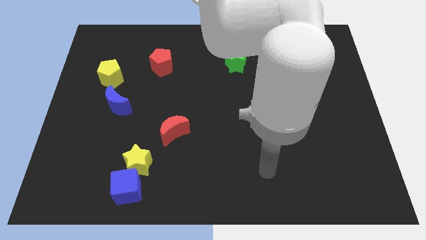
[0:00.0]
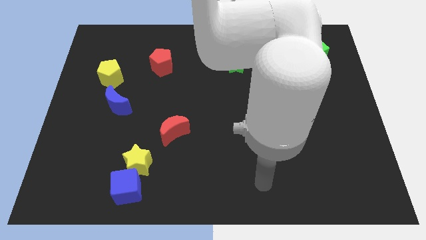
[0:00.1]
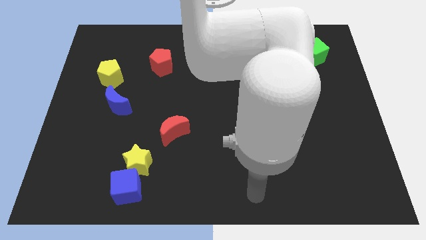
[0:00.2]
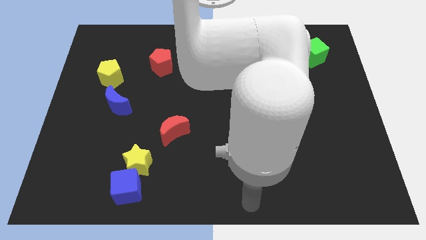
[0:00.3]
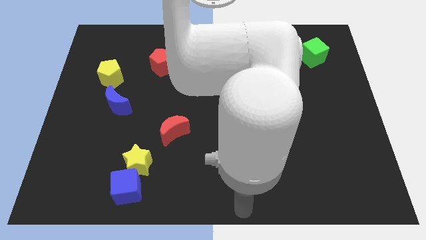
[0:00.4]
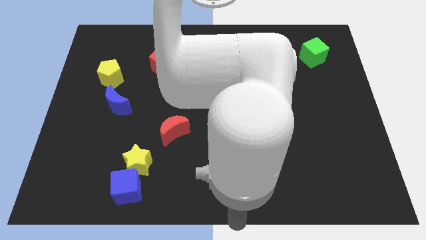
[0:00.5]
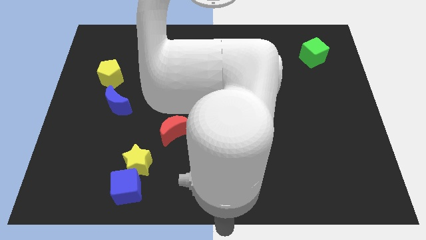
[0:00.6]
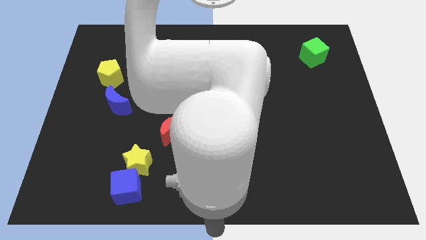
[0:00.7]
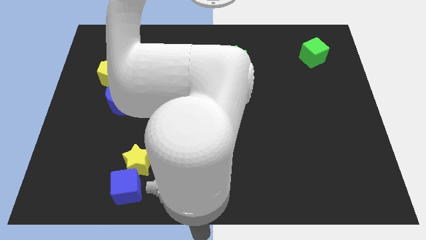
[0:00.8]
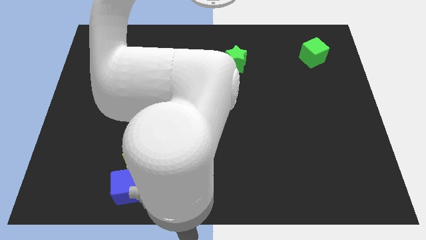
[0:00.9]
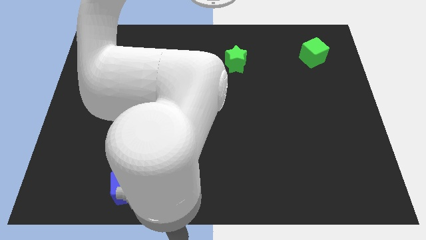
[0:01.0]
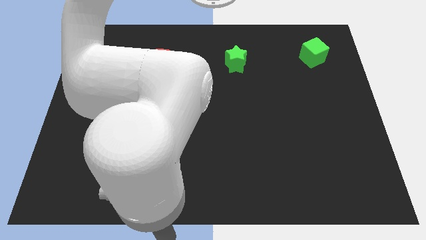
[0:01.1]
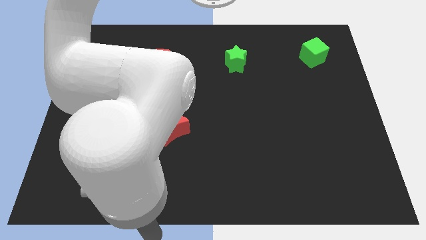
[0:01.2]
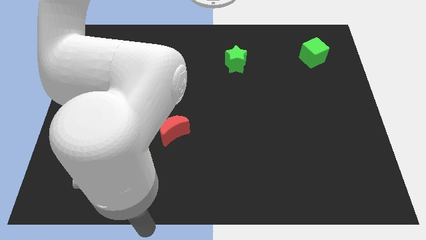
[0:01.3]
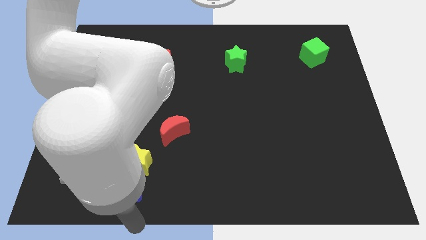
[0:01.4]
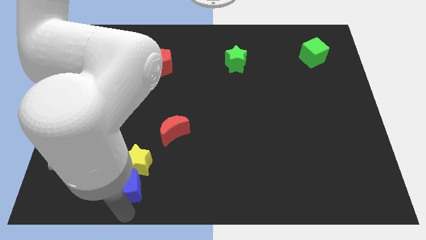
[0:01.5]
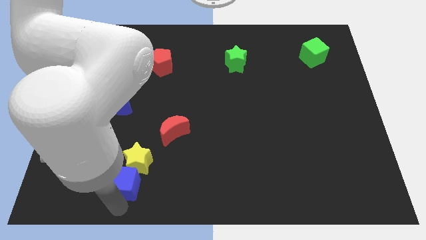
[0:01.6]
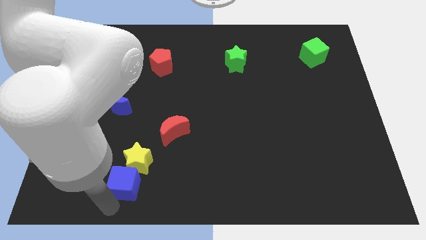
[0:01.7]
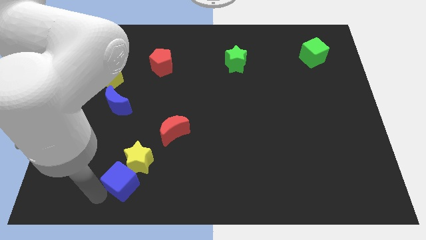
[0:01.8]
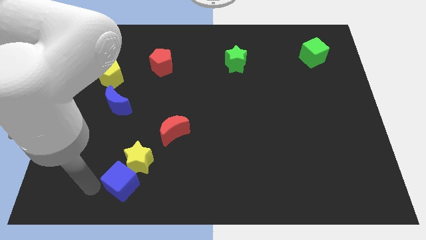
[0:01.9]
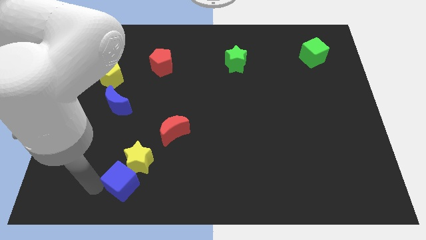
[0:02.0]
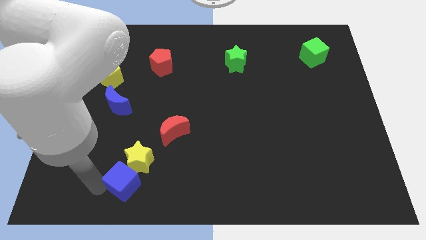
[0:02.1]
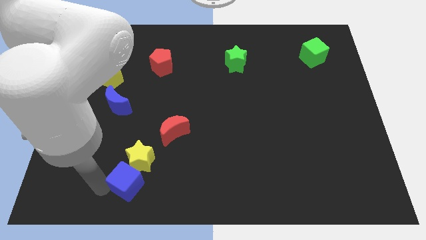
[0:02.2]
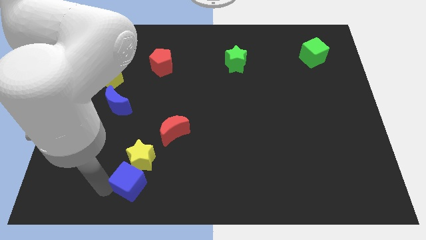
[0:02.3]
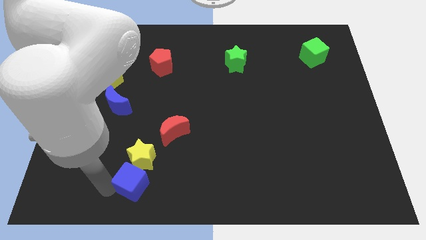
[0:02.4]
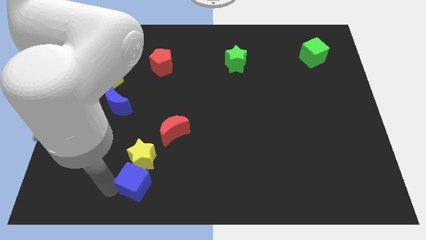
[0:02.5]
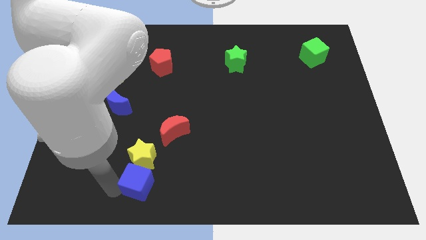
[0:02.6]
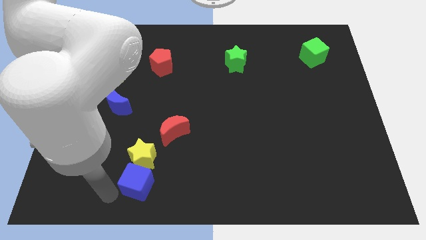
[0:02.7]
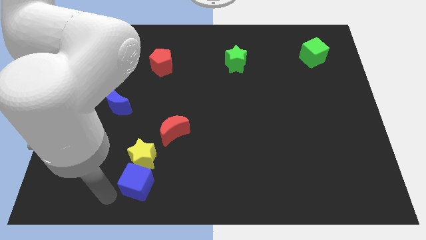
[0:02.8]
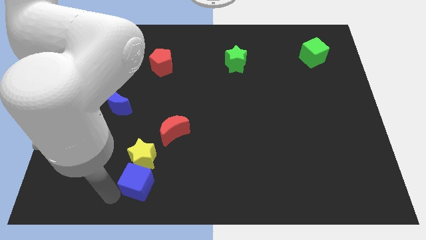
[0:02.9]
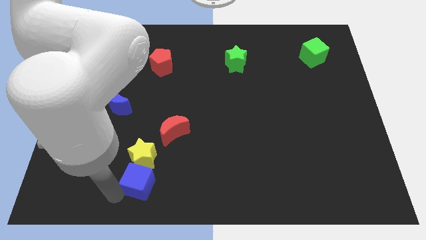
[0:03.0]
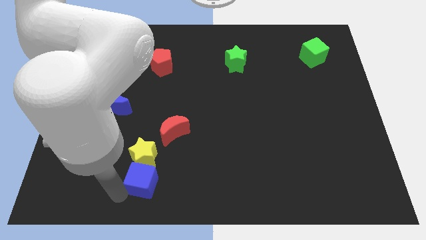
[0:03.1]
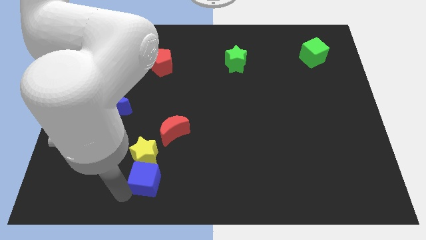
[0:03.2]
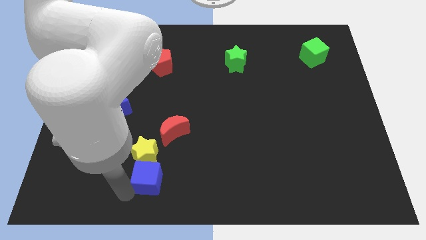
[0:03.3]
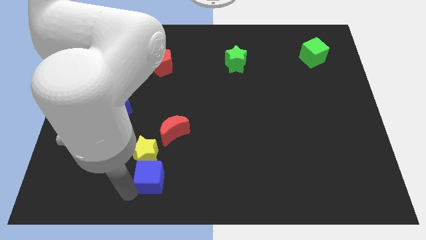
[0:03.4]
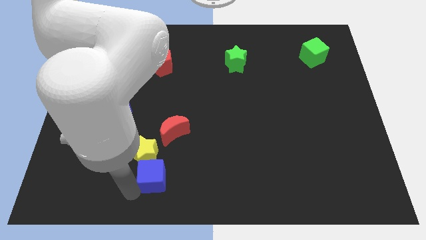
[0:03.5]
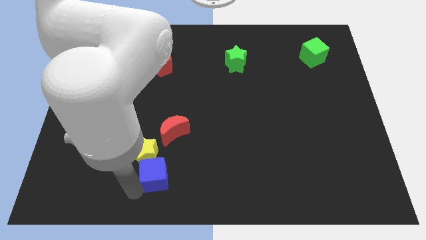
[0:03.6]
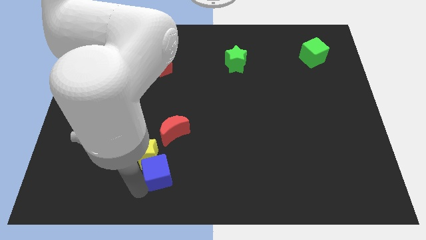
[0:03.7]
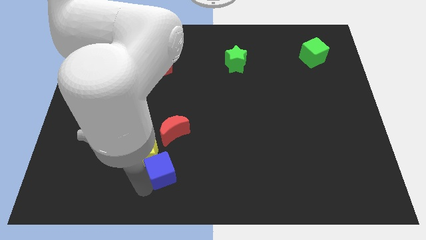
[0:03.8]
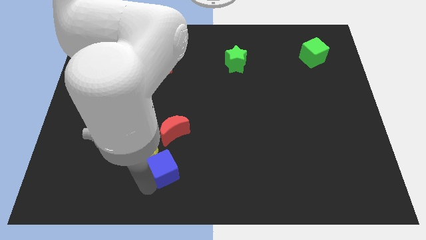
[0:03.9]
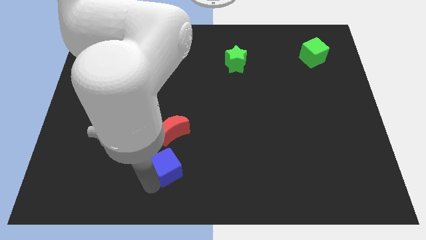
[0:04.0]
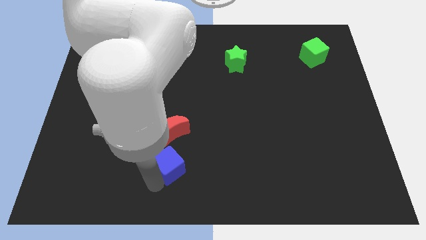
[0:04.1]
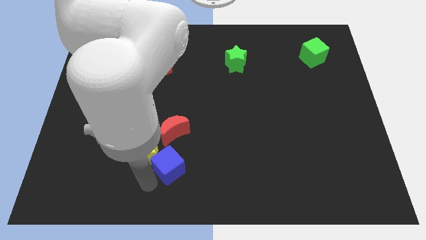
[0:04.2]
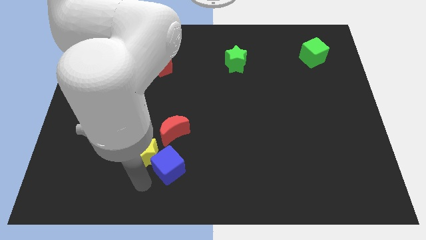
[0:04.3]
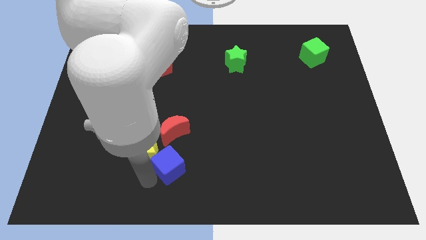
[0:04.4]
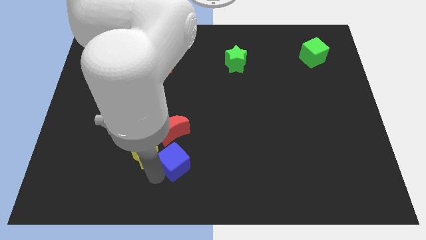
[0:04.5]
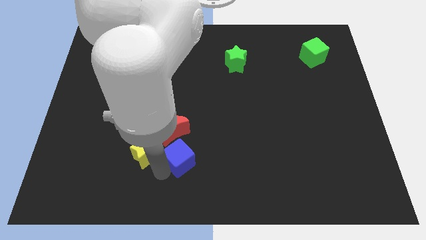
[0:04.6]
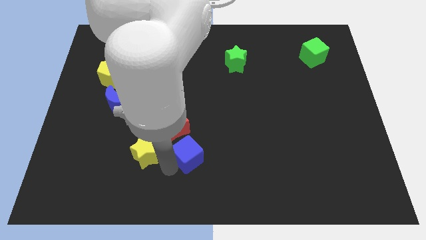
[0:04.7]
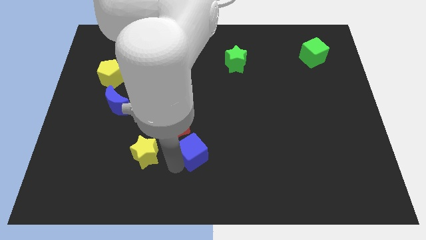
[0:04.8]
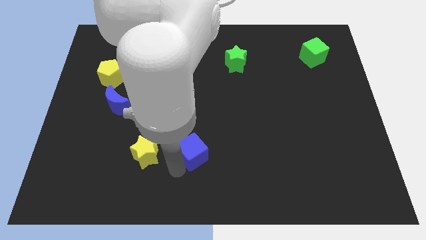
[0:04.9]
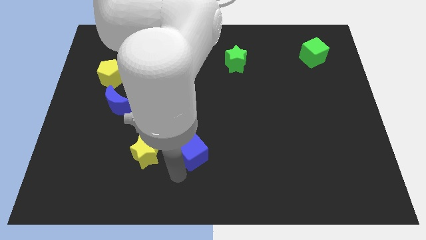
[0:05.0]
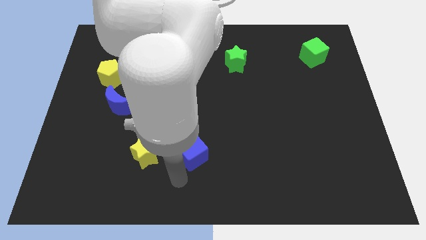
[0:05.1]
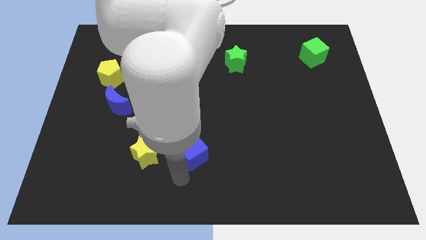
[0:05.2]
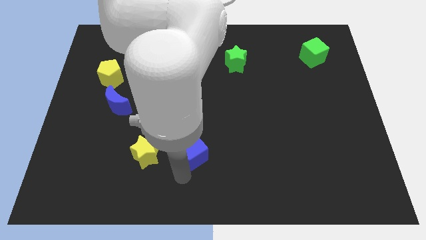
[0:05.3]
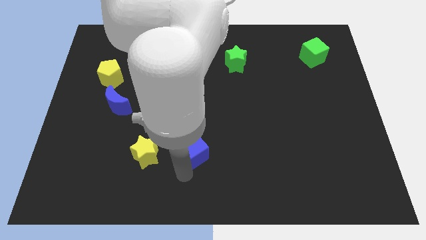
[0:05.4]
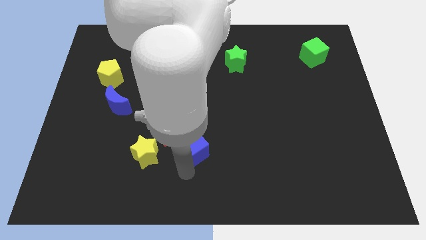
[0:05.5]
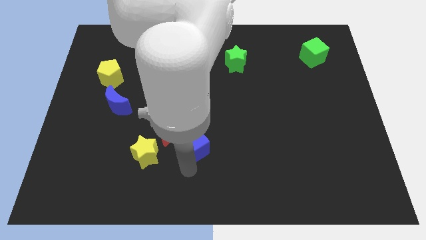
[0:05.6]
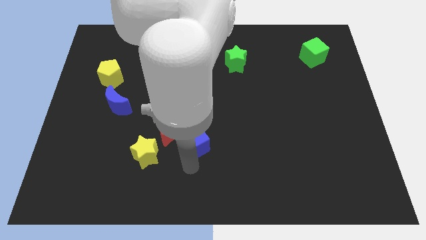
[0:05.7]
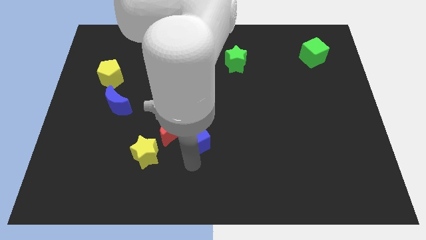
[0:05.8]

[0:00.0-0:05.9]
put the blue cube to the center of the board

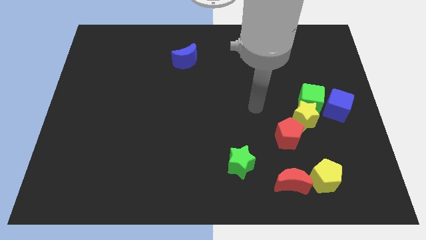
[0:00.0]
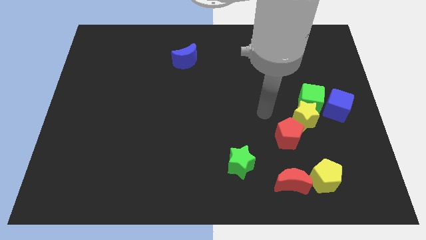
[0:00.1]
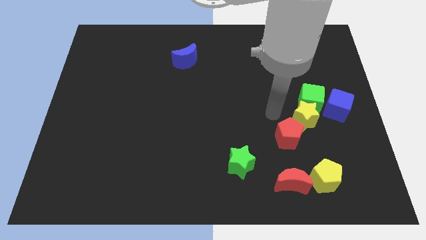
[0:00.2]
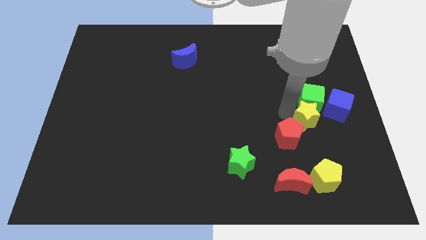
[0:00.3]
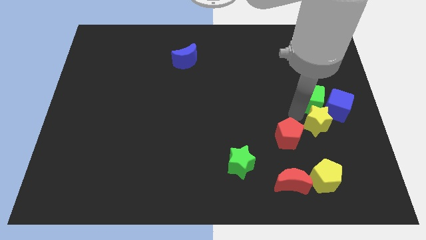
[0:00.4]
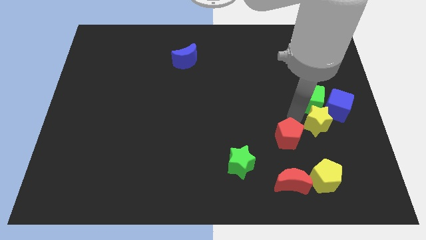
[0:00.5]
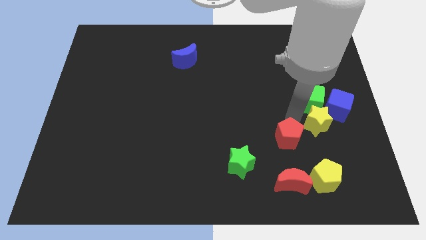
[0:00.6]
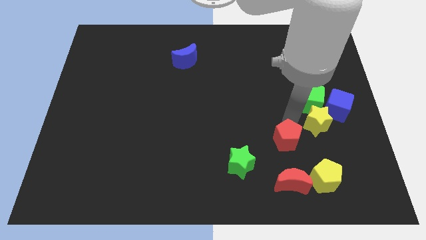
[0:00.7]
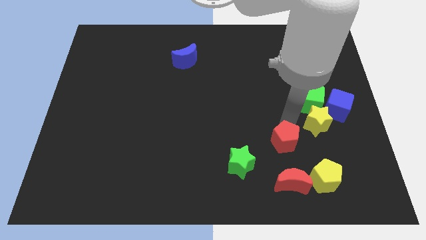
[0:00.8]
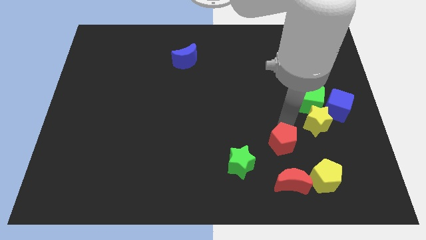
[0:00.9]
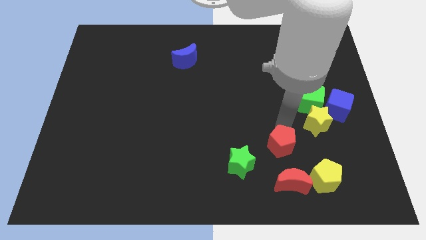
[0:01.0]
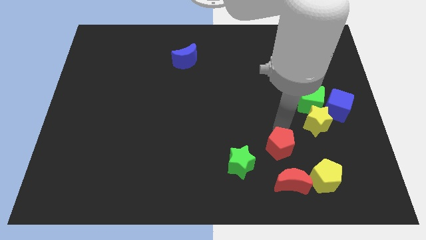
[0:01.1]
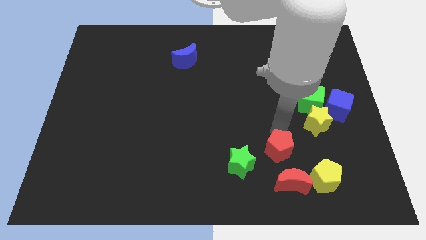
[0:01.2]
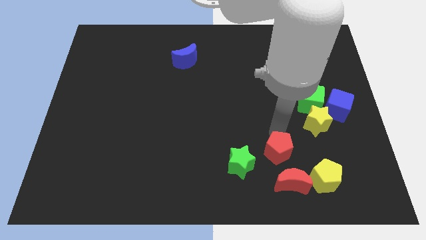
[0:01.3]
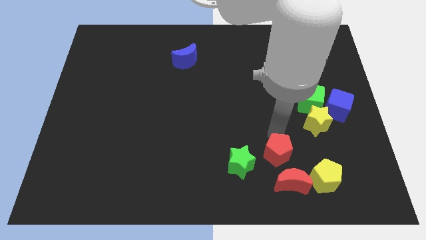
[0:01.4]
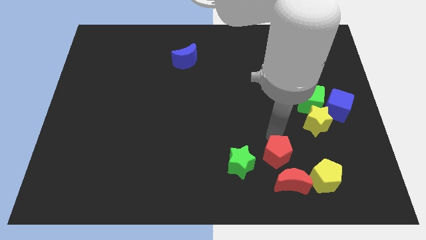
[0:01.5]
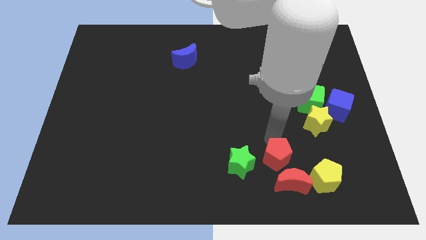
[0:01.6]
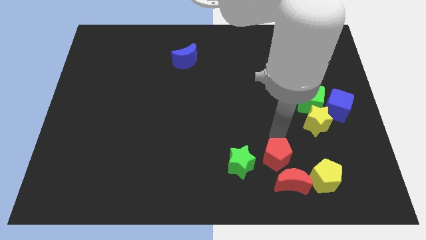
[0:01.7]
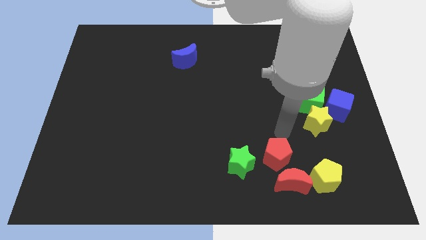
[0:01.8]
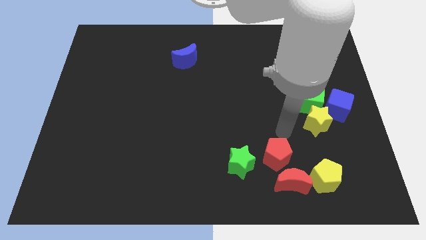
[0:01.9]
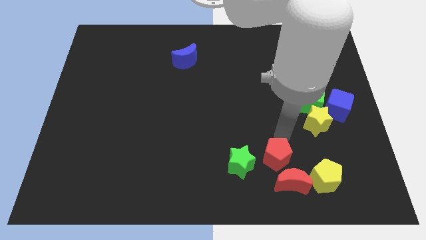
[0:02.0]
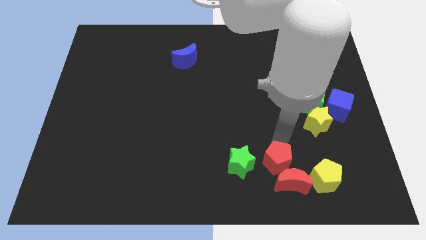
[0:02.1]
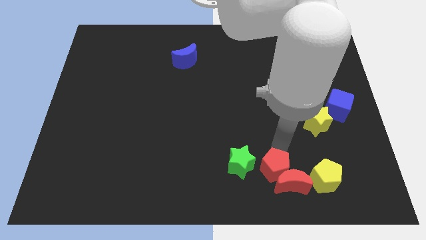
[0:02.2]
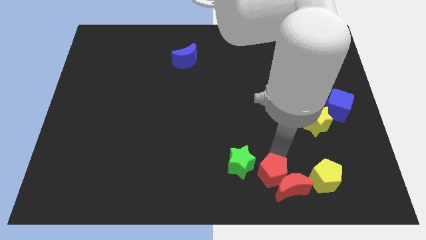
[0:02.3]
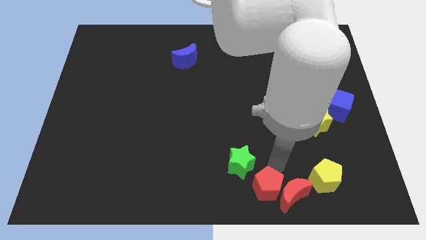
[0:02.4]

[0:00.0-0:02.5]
slide the red pentagon to the bottom side
